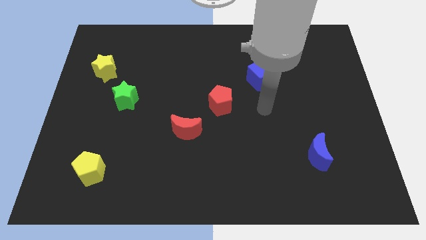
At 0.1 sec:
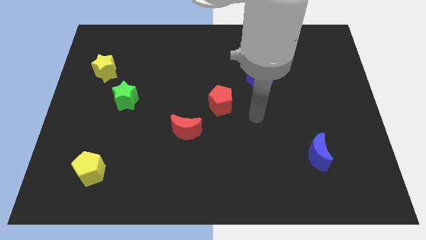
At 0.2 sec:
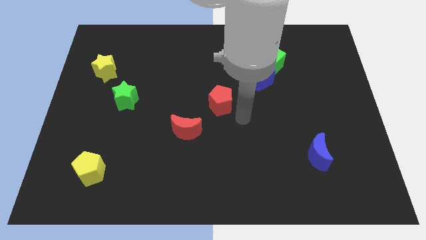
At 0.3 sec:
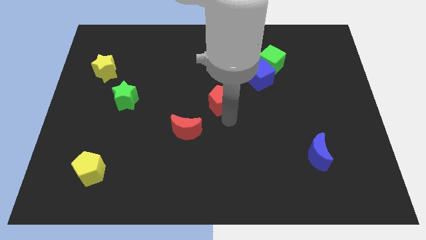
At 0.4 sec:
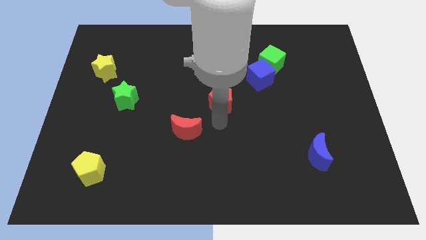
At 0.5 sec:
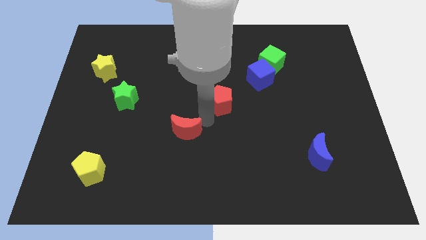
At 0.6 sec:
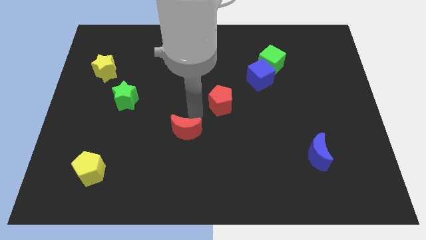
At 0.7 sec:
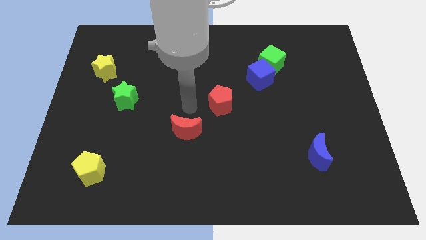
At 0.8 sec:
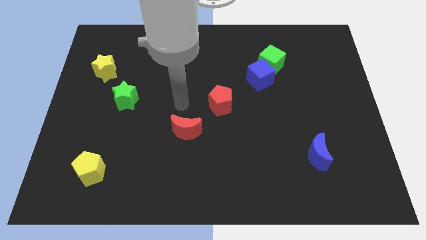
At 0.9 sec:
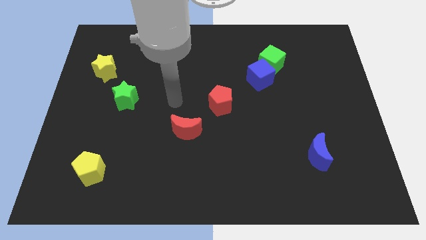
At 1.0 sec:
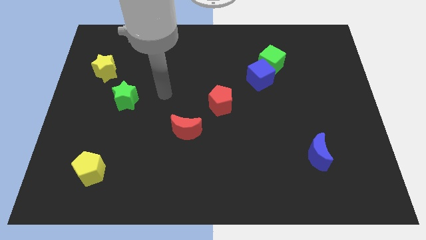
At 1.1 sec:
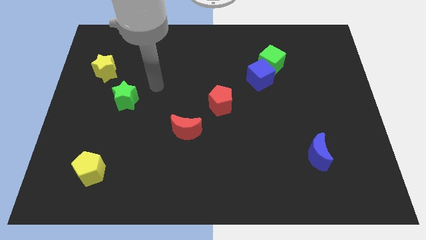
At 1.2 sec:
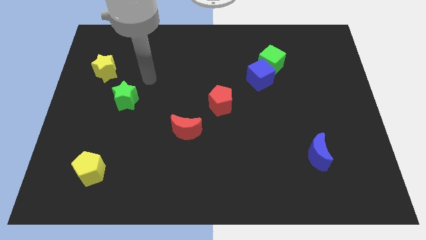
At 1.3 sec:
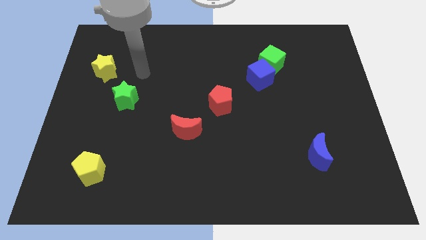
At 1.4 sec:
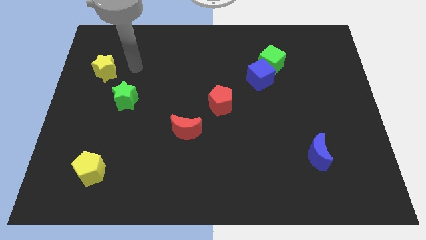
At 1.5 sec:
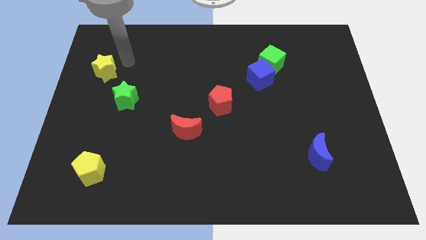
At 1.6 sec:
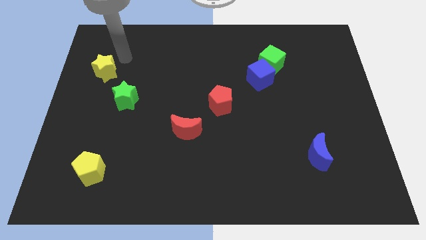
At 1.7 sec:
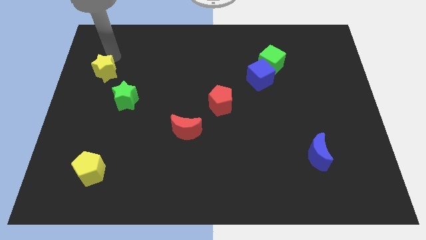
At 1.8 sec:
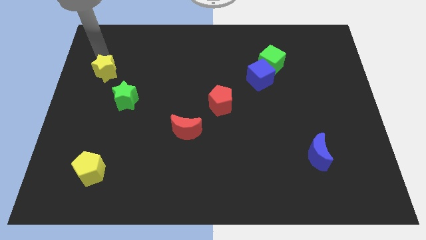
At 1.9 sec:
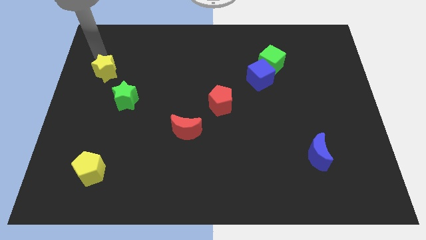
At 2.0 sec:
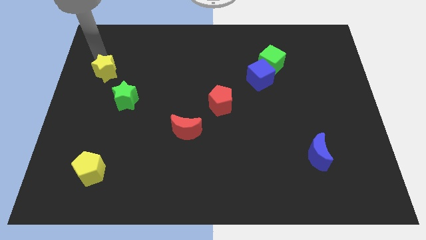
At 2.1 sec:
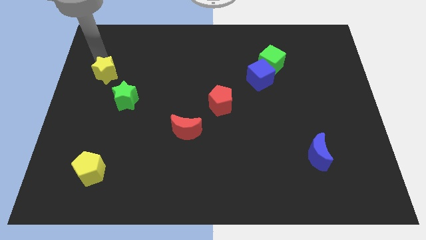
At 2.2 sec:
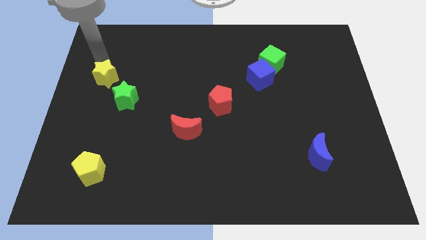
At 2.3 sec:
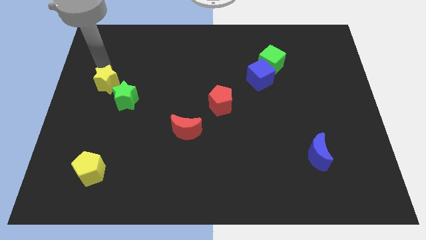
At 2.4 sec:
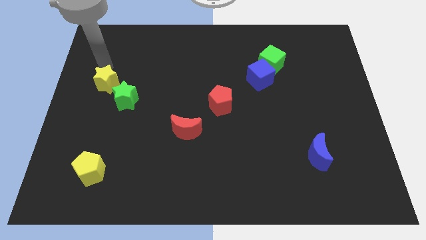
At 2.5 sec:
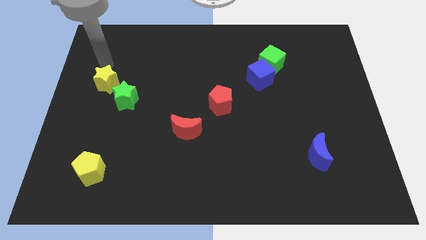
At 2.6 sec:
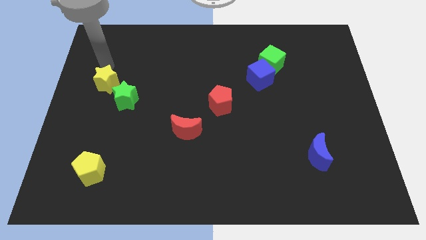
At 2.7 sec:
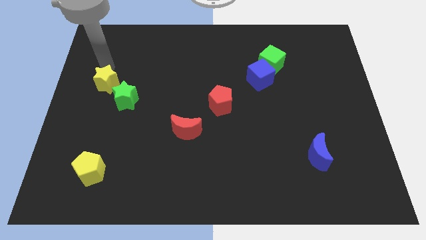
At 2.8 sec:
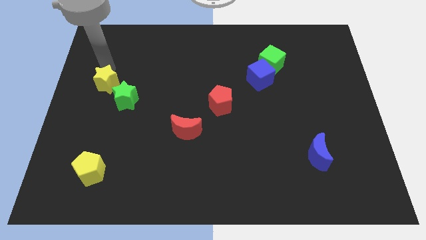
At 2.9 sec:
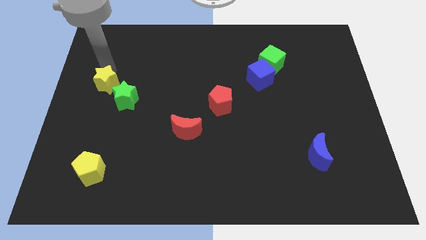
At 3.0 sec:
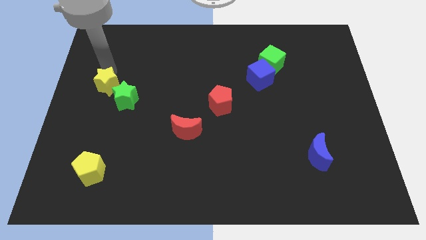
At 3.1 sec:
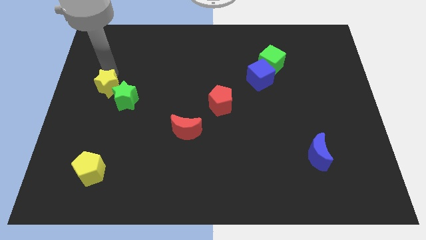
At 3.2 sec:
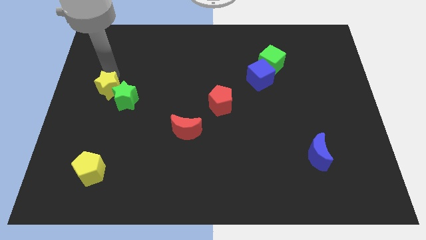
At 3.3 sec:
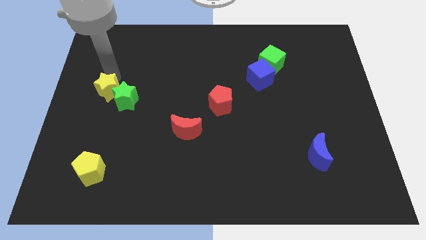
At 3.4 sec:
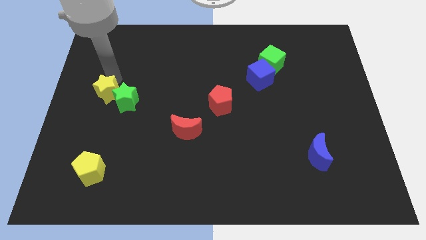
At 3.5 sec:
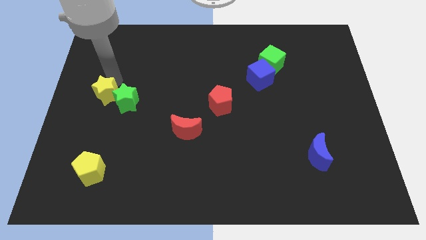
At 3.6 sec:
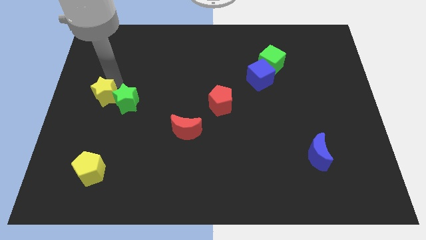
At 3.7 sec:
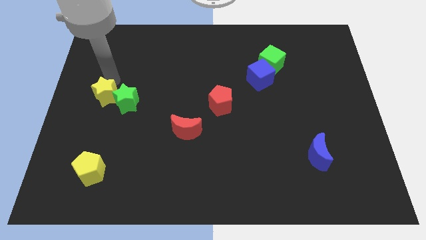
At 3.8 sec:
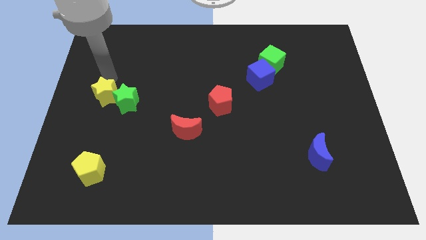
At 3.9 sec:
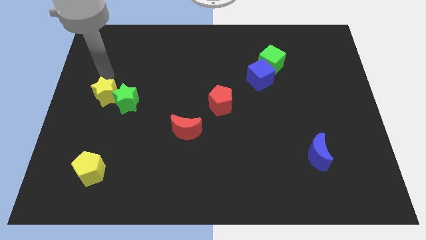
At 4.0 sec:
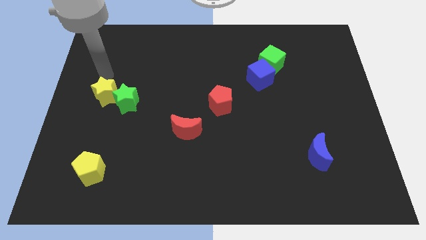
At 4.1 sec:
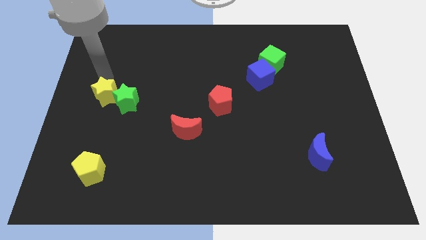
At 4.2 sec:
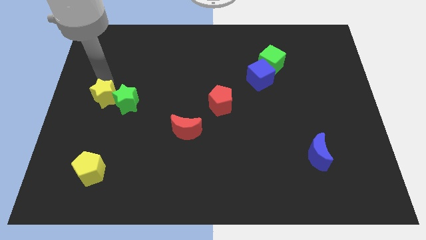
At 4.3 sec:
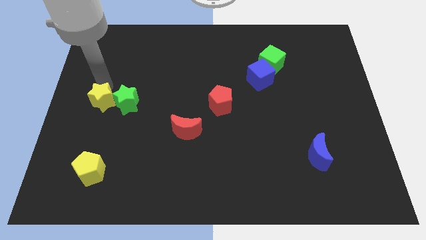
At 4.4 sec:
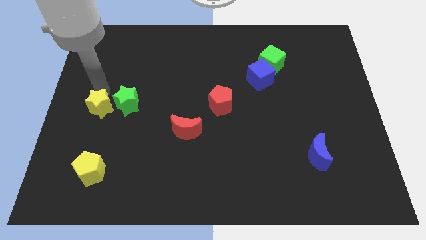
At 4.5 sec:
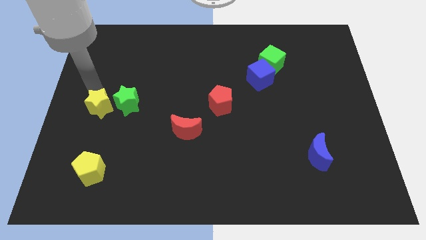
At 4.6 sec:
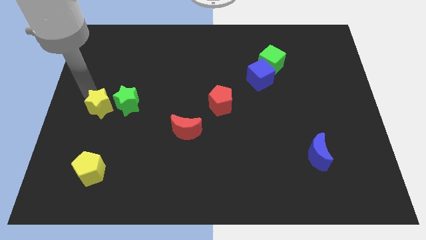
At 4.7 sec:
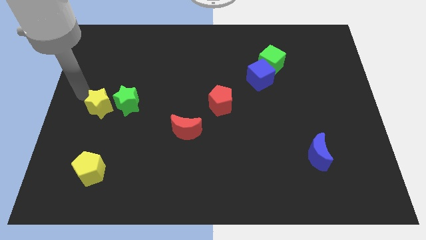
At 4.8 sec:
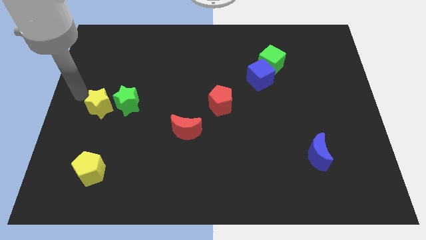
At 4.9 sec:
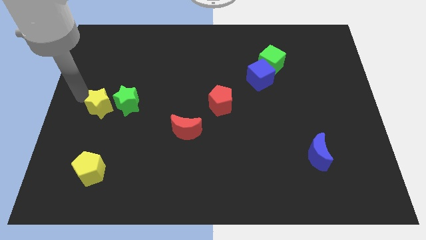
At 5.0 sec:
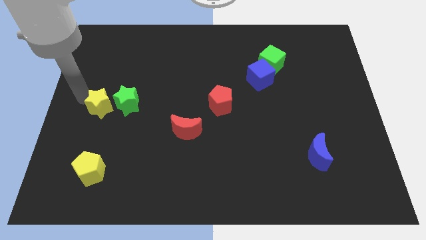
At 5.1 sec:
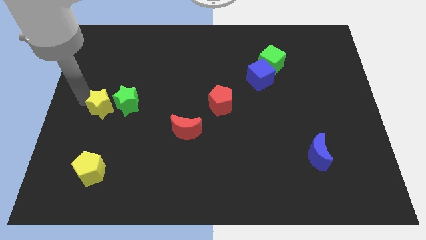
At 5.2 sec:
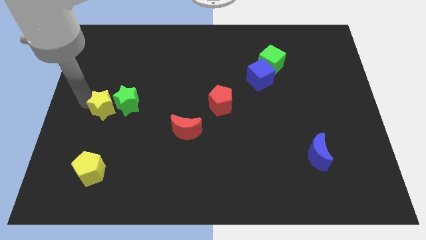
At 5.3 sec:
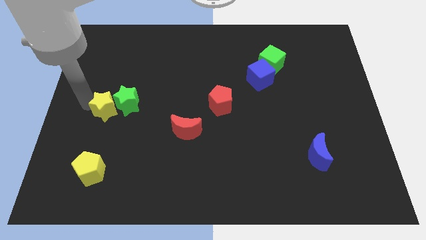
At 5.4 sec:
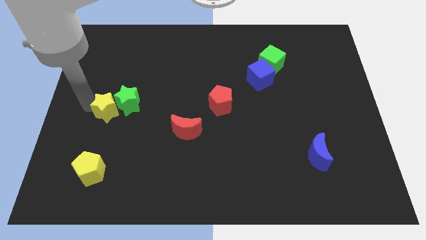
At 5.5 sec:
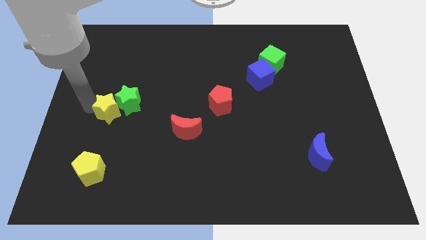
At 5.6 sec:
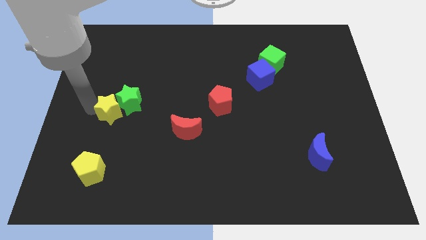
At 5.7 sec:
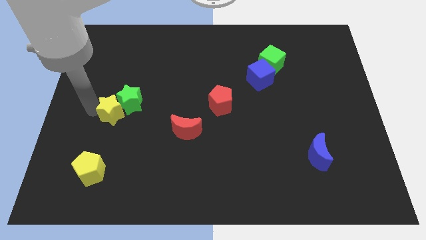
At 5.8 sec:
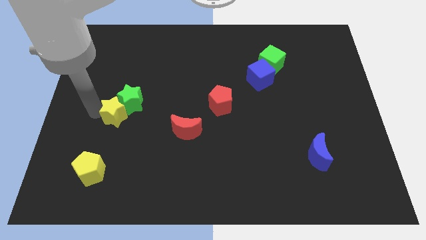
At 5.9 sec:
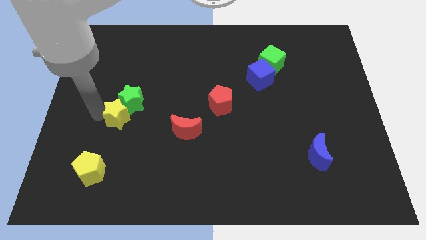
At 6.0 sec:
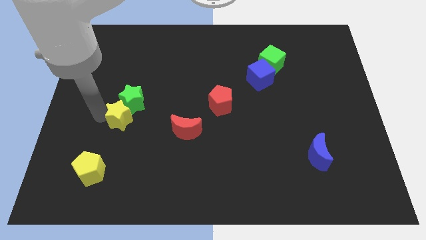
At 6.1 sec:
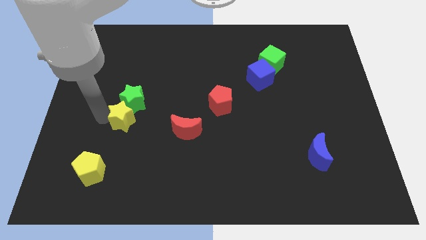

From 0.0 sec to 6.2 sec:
put the yellow star just left of the red moon

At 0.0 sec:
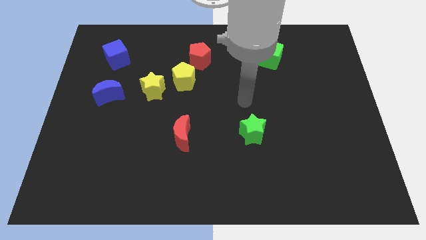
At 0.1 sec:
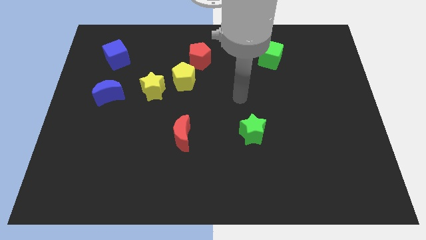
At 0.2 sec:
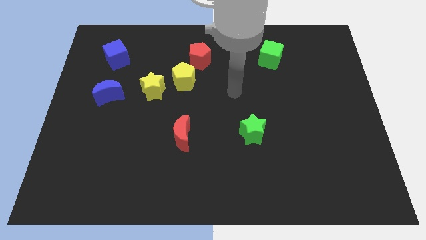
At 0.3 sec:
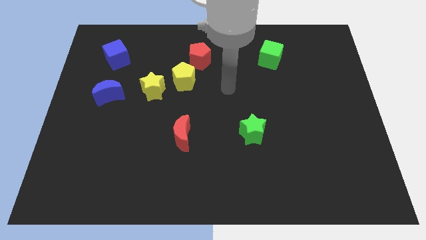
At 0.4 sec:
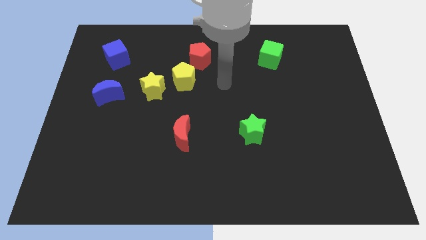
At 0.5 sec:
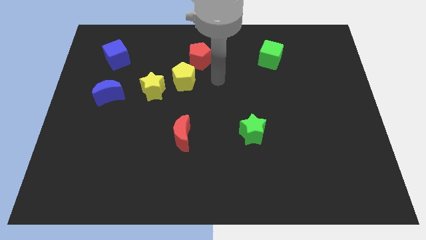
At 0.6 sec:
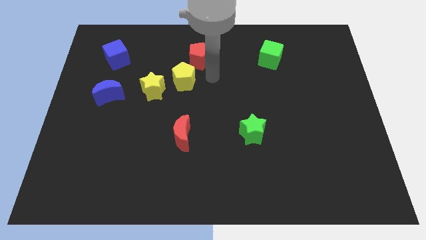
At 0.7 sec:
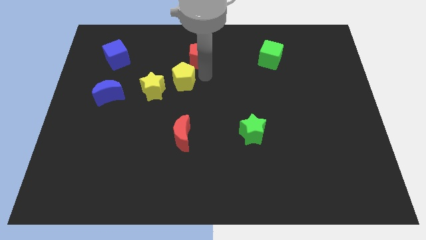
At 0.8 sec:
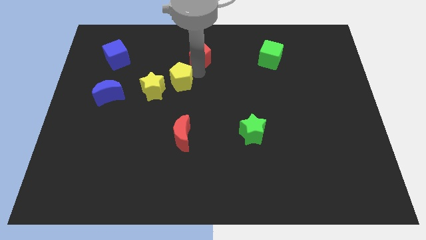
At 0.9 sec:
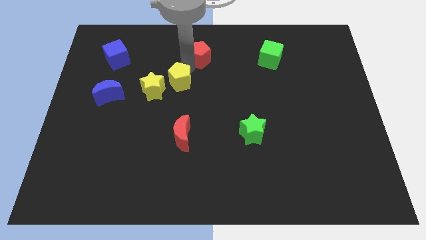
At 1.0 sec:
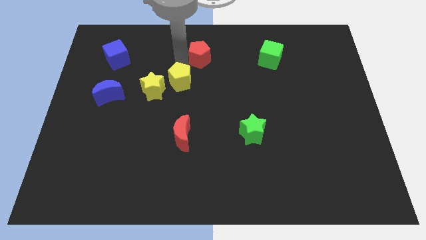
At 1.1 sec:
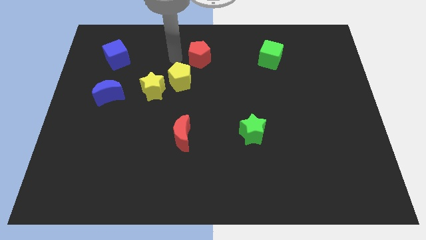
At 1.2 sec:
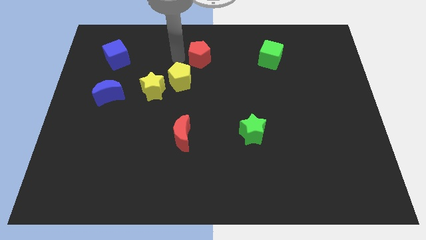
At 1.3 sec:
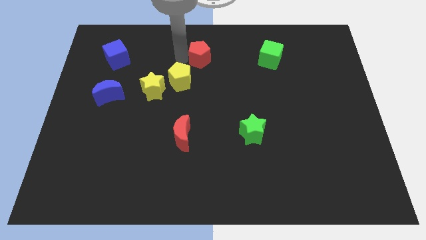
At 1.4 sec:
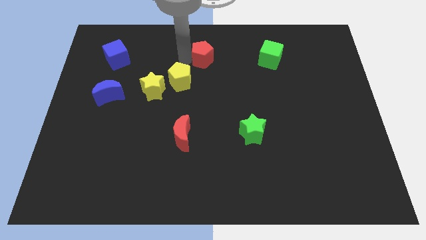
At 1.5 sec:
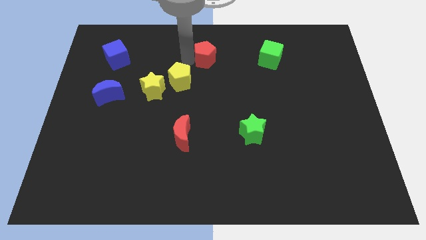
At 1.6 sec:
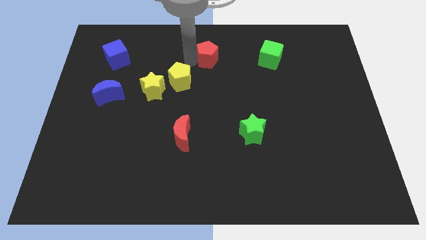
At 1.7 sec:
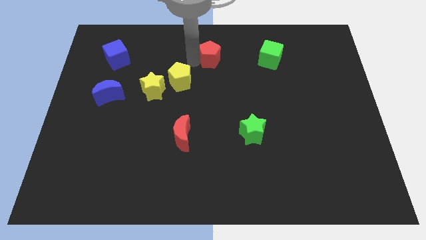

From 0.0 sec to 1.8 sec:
push the red pentagon left of the green cube
